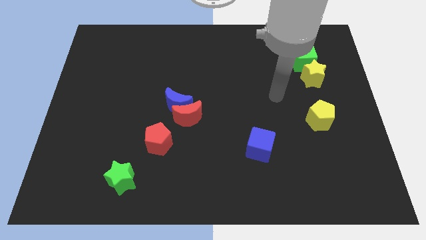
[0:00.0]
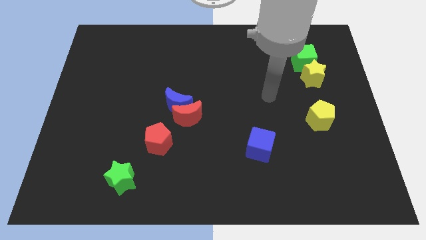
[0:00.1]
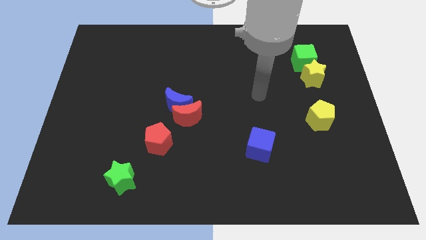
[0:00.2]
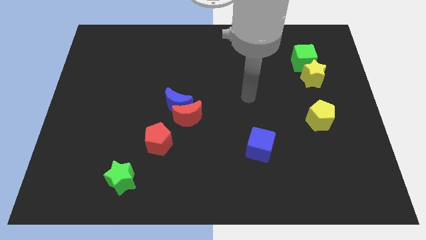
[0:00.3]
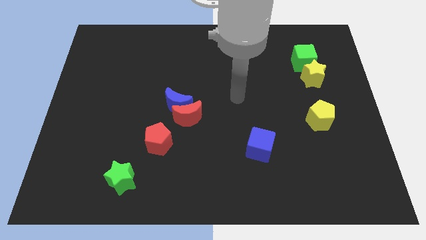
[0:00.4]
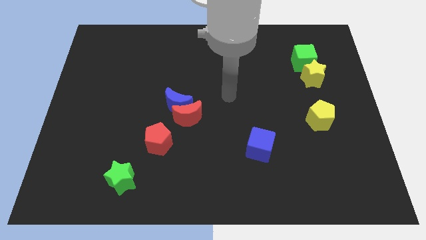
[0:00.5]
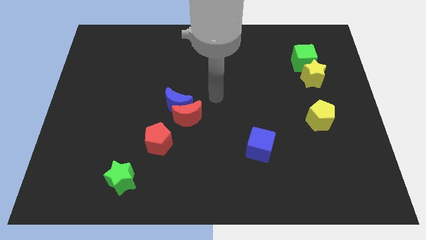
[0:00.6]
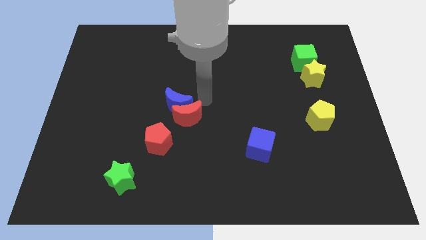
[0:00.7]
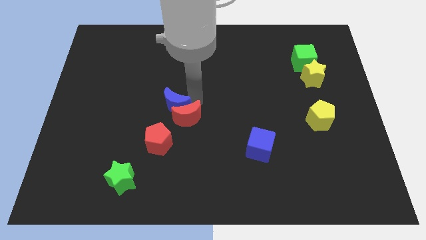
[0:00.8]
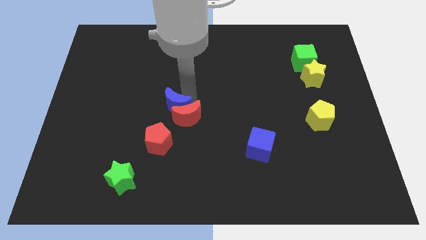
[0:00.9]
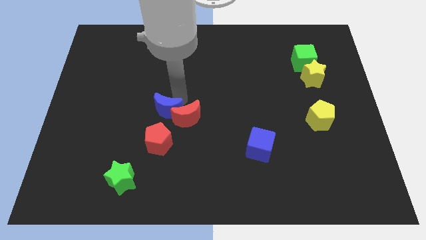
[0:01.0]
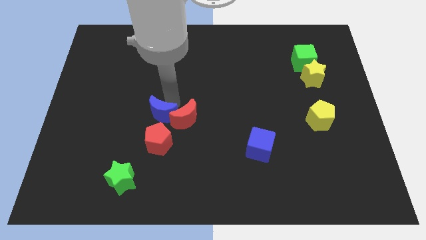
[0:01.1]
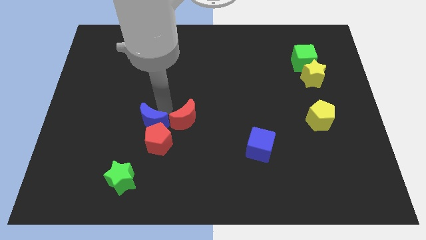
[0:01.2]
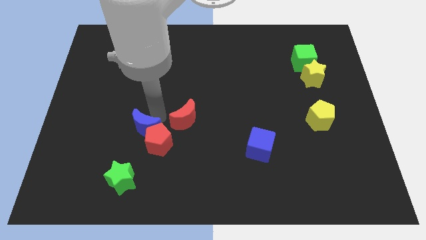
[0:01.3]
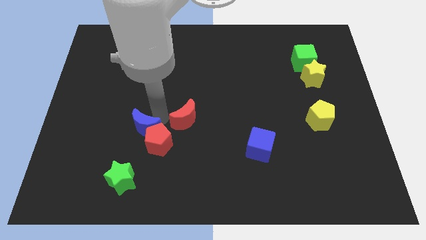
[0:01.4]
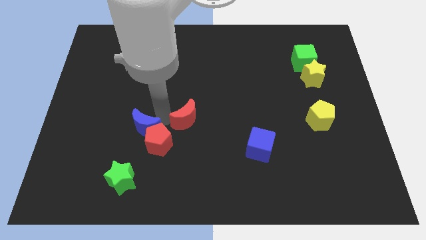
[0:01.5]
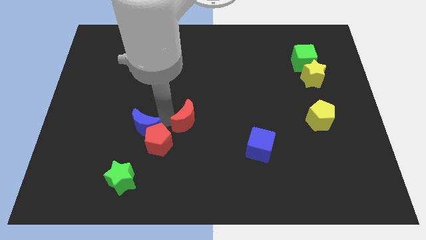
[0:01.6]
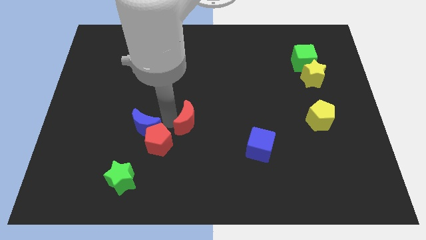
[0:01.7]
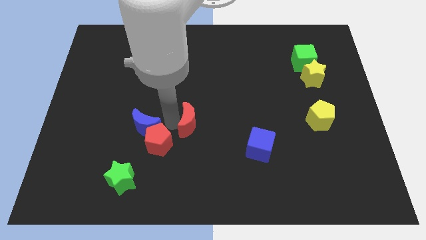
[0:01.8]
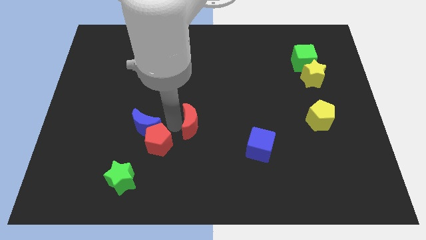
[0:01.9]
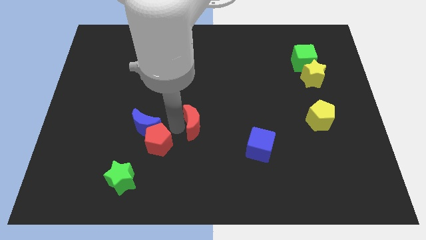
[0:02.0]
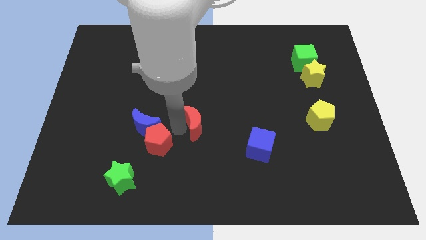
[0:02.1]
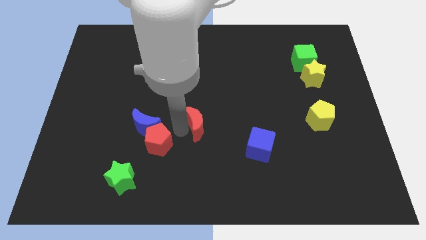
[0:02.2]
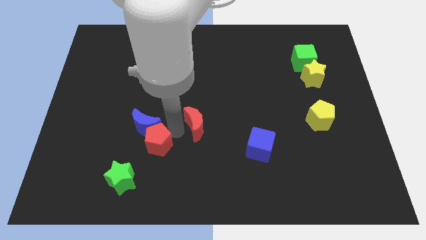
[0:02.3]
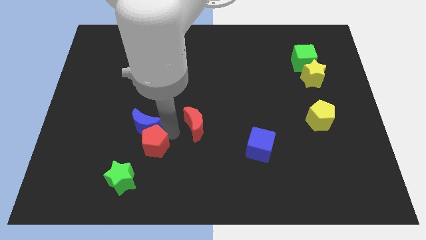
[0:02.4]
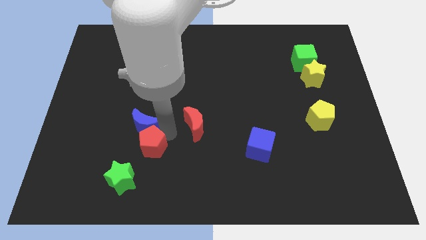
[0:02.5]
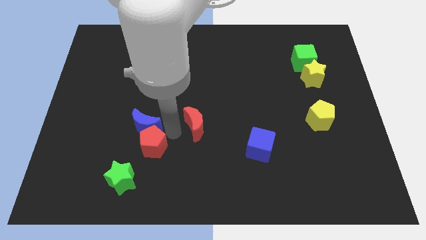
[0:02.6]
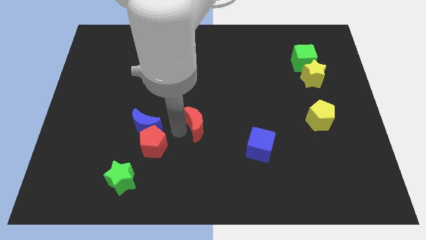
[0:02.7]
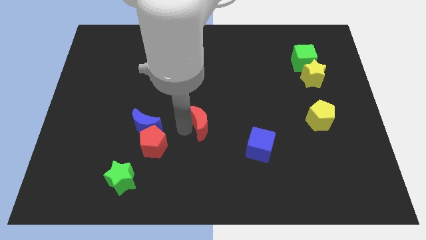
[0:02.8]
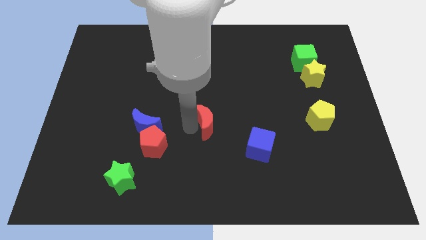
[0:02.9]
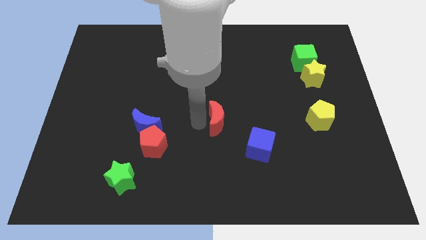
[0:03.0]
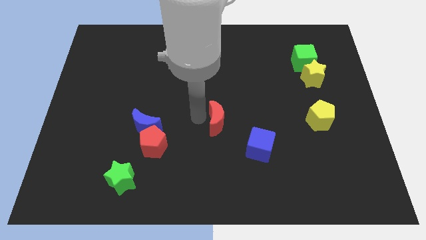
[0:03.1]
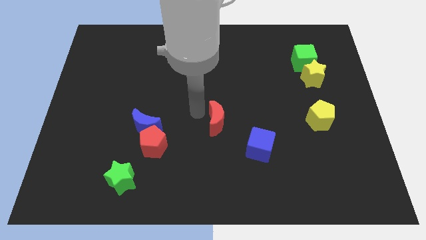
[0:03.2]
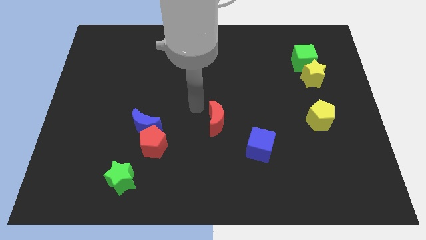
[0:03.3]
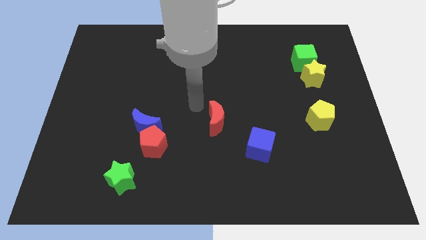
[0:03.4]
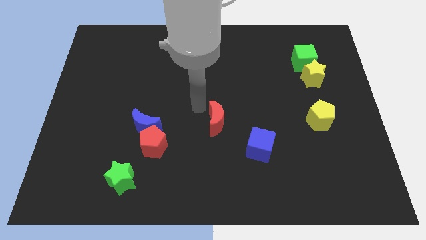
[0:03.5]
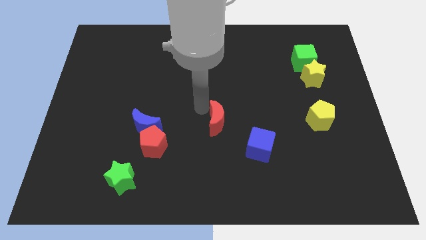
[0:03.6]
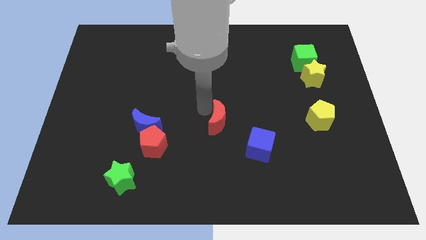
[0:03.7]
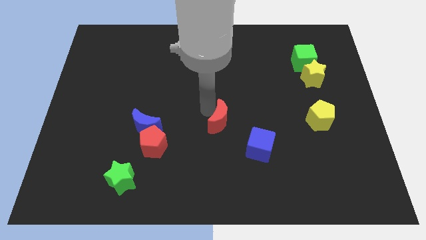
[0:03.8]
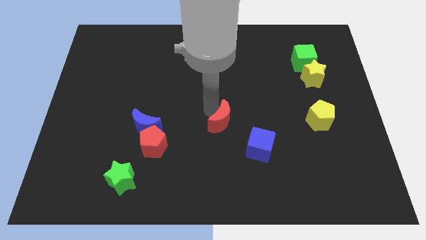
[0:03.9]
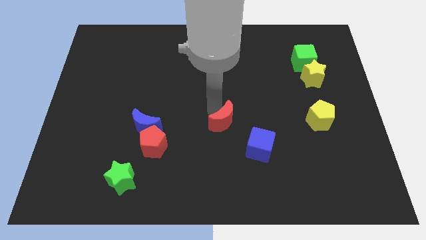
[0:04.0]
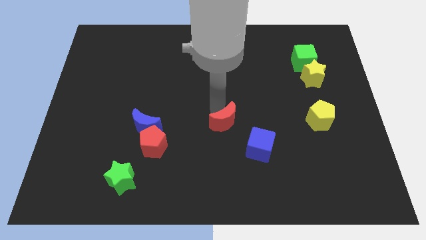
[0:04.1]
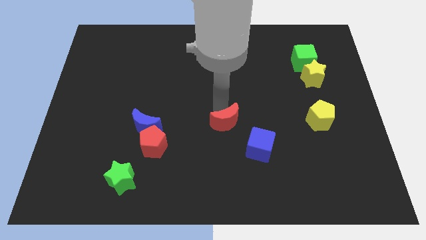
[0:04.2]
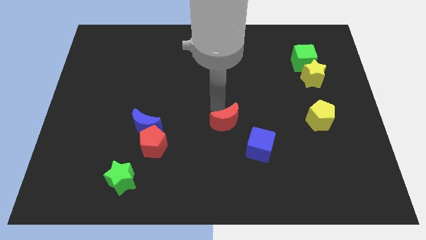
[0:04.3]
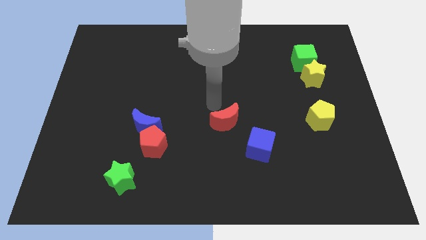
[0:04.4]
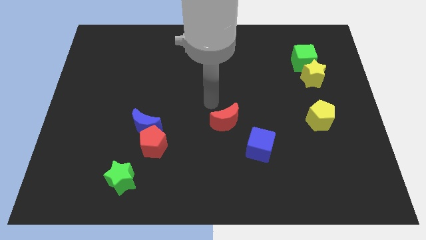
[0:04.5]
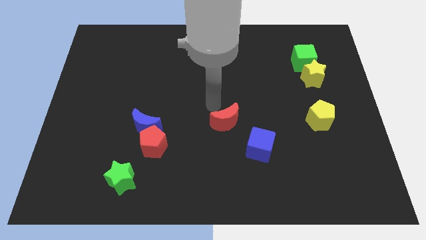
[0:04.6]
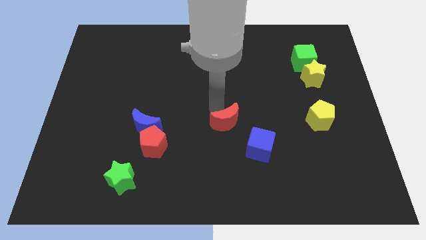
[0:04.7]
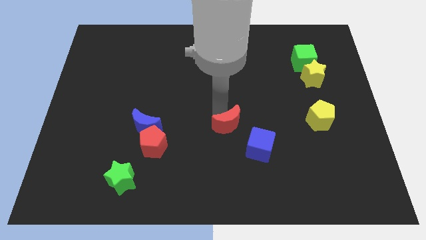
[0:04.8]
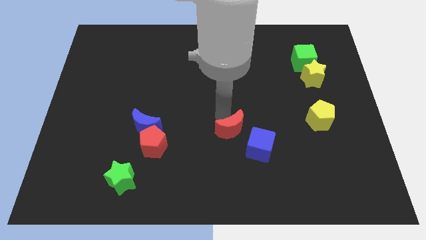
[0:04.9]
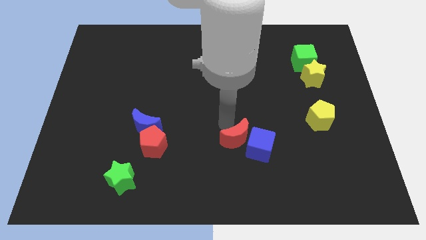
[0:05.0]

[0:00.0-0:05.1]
push the red moon close to the blue cube

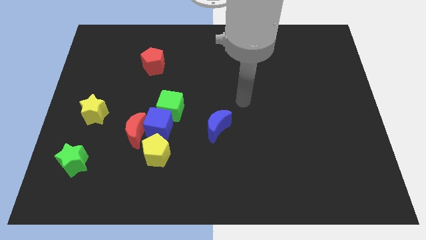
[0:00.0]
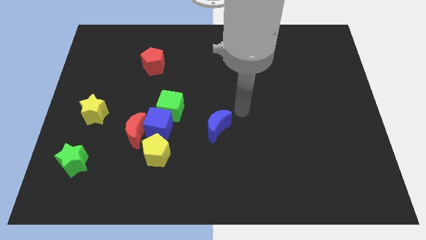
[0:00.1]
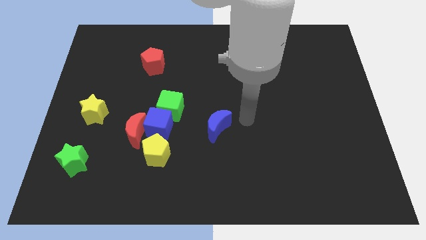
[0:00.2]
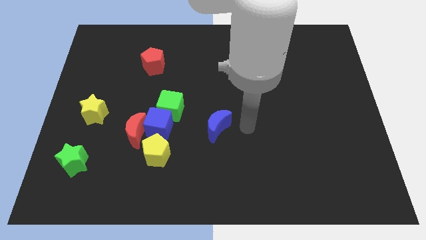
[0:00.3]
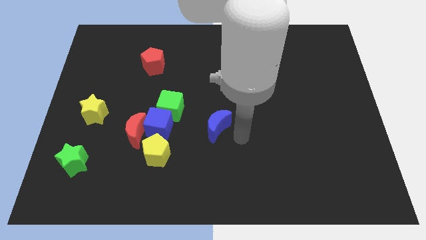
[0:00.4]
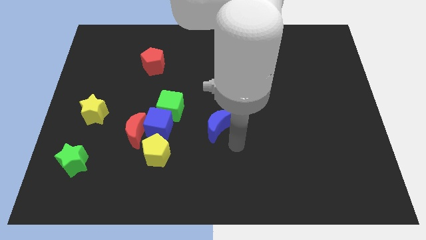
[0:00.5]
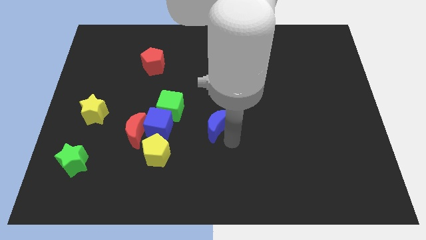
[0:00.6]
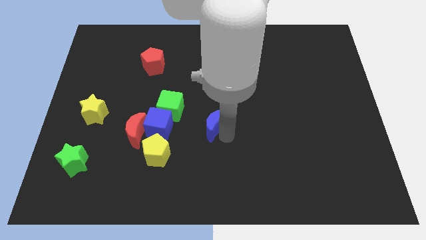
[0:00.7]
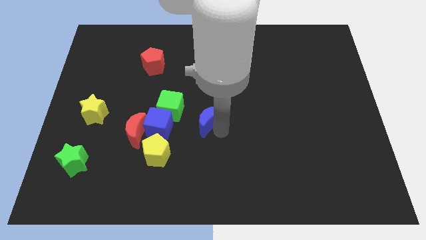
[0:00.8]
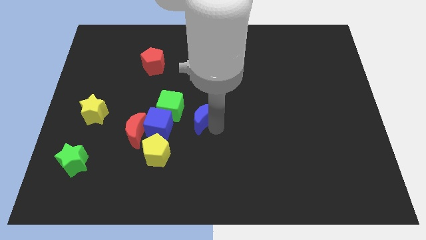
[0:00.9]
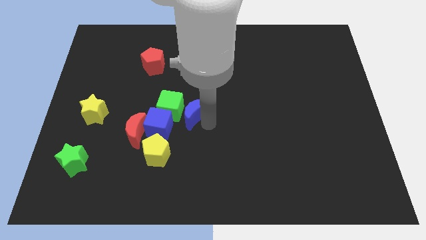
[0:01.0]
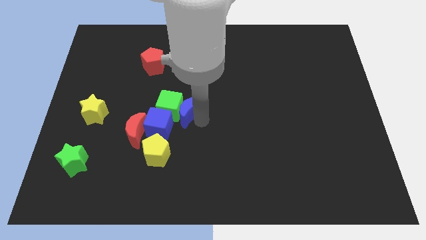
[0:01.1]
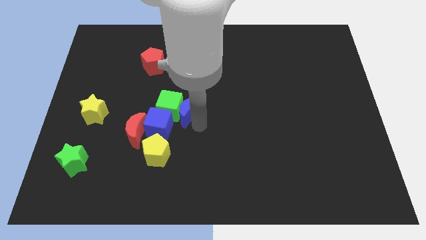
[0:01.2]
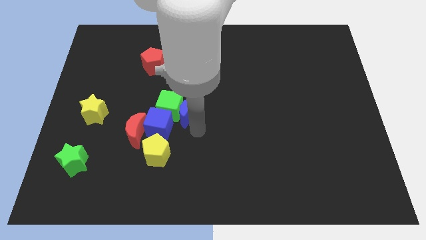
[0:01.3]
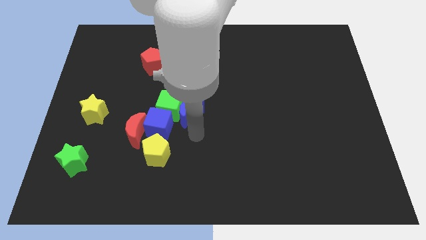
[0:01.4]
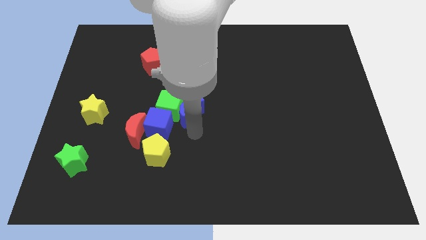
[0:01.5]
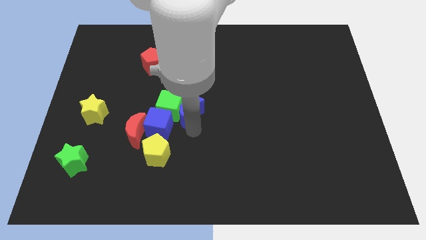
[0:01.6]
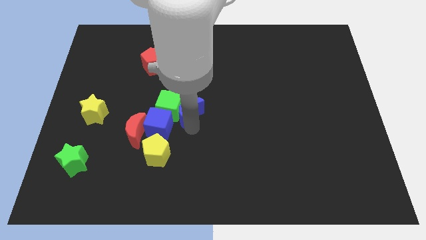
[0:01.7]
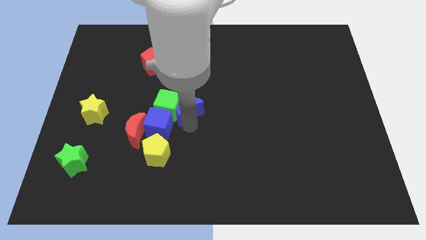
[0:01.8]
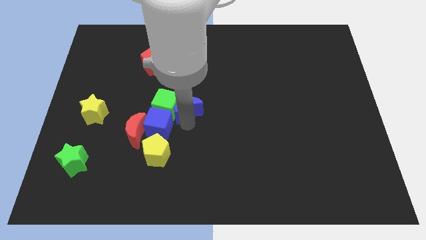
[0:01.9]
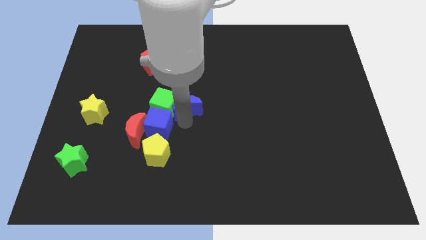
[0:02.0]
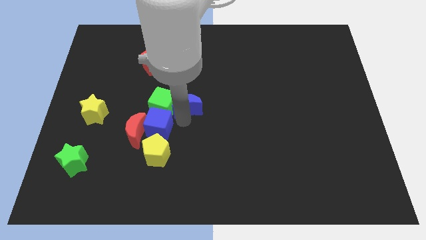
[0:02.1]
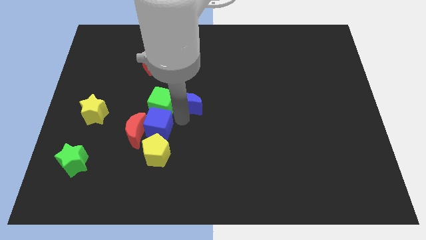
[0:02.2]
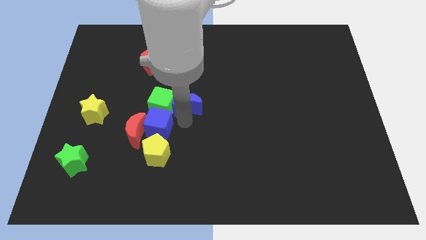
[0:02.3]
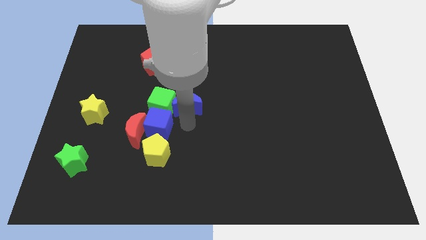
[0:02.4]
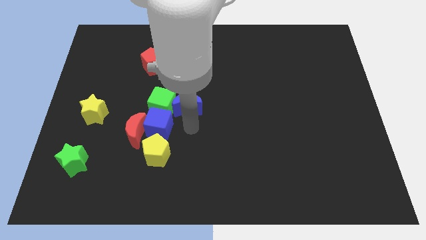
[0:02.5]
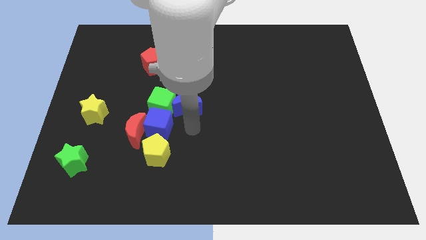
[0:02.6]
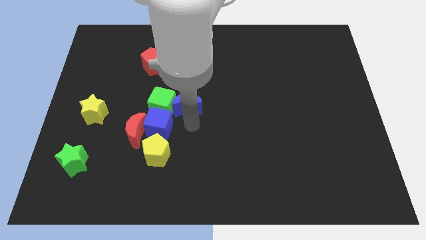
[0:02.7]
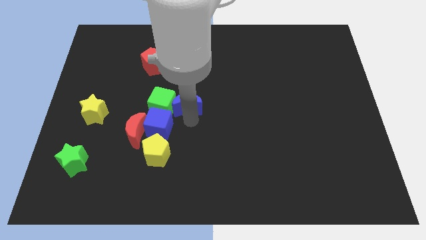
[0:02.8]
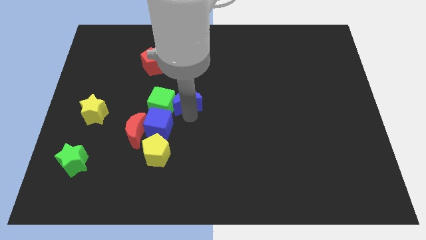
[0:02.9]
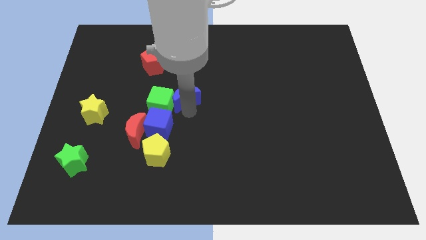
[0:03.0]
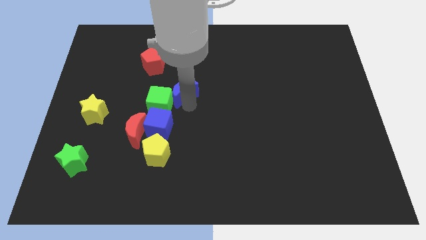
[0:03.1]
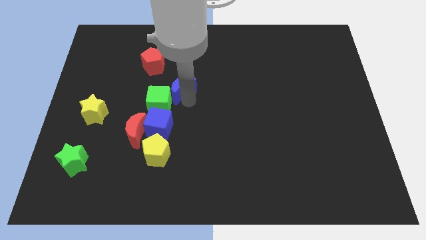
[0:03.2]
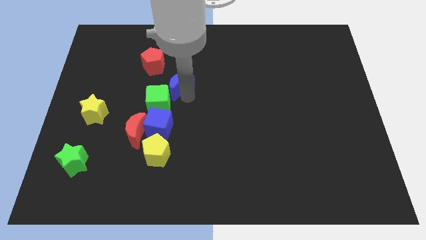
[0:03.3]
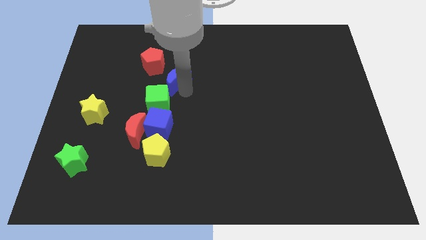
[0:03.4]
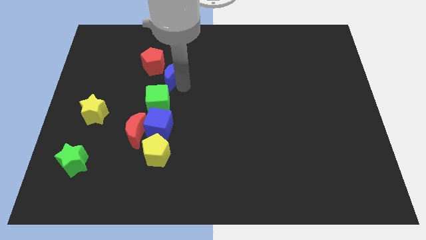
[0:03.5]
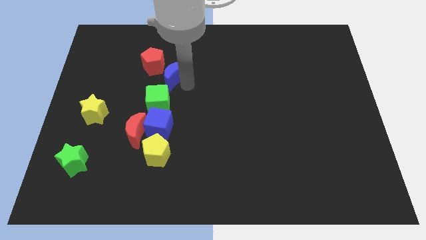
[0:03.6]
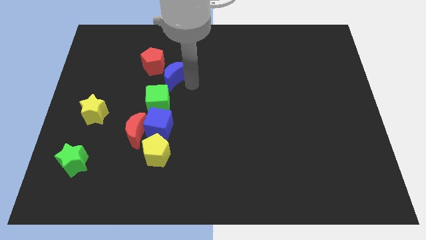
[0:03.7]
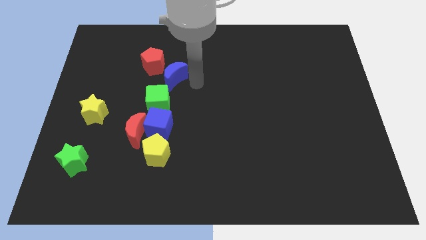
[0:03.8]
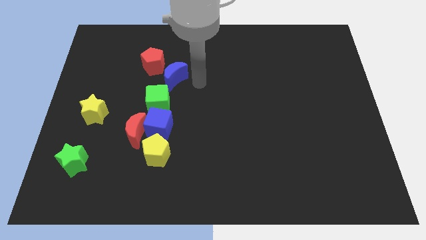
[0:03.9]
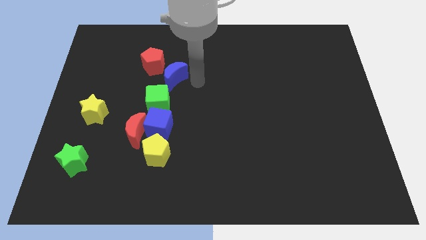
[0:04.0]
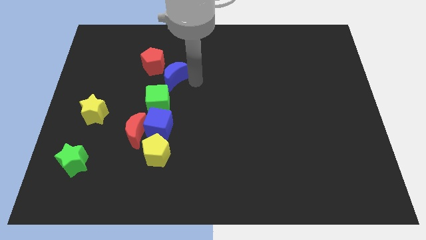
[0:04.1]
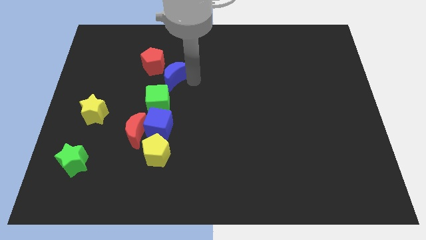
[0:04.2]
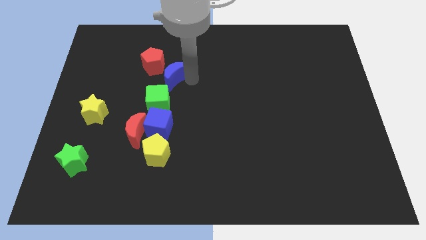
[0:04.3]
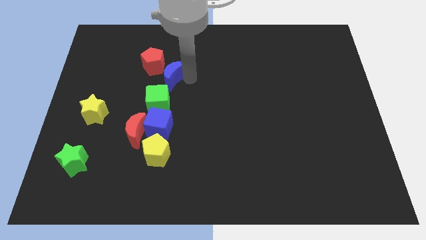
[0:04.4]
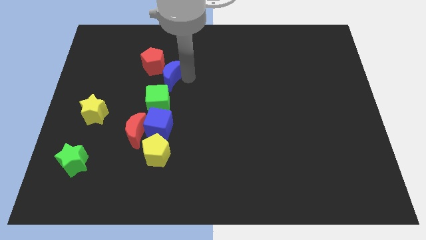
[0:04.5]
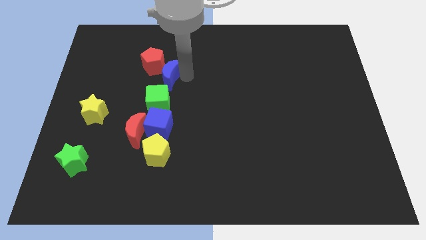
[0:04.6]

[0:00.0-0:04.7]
move the blue moon to the red pentagon
